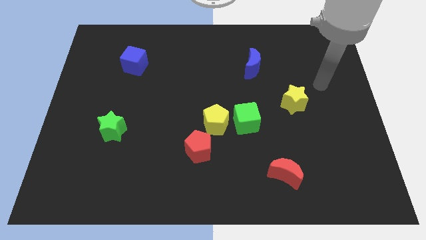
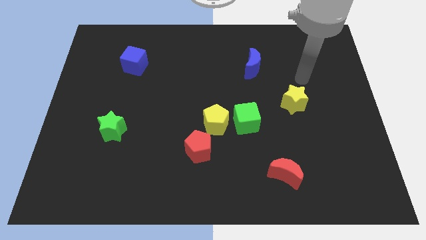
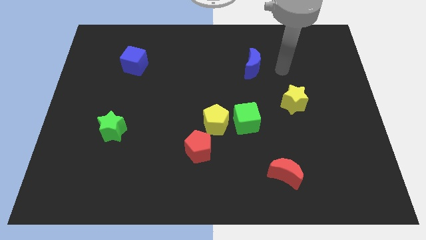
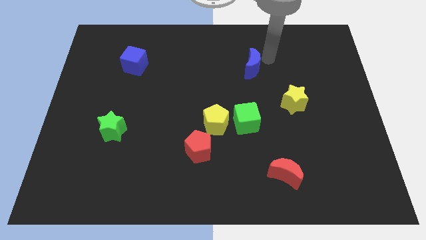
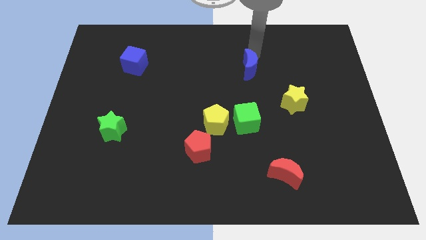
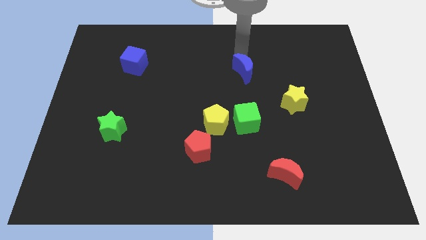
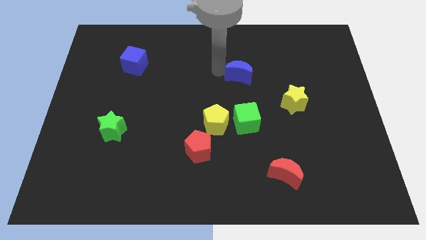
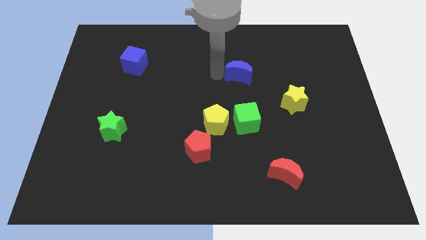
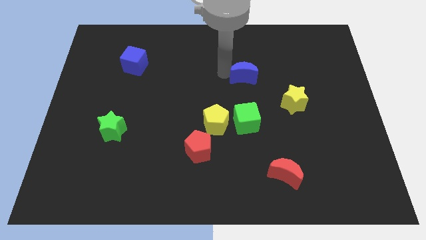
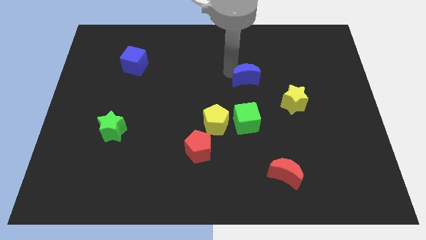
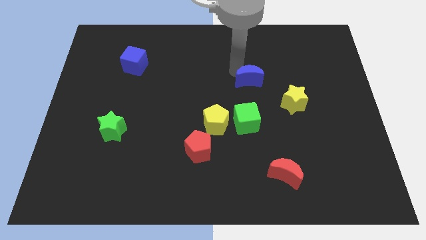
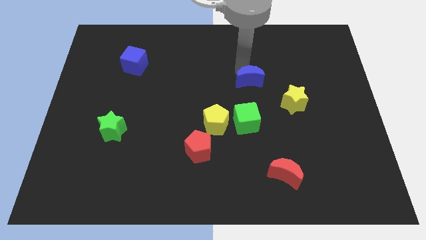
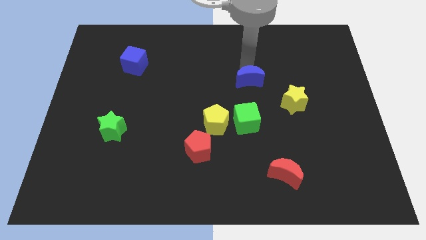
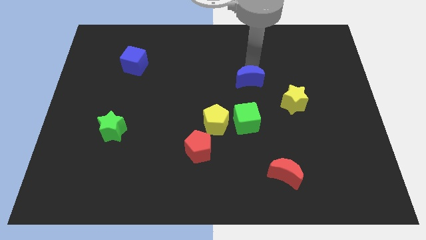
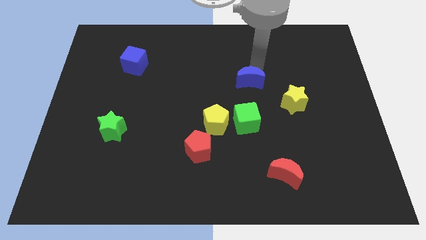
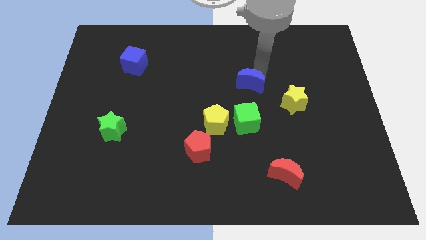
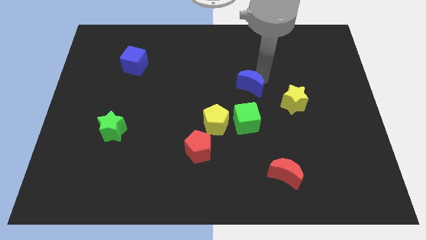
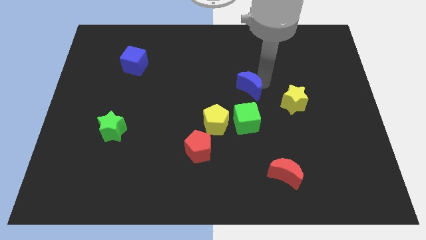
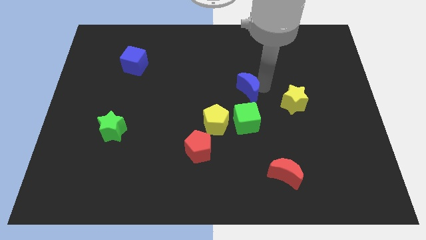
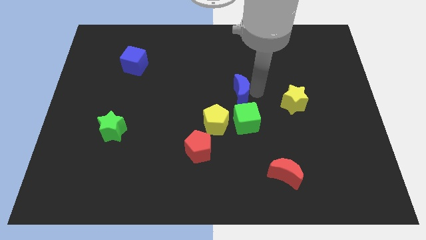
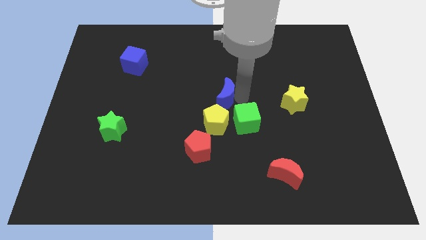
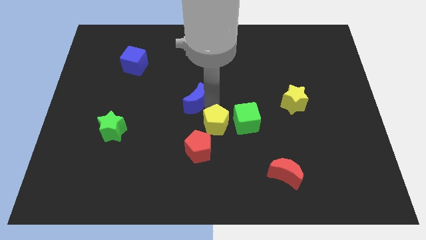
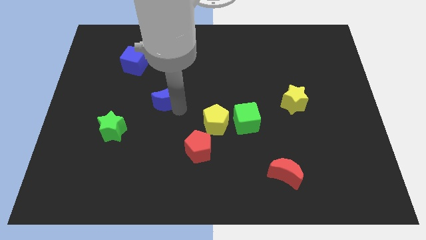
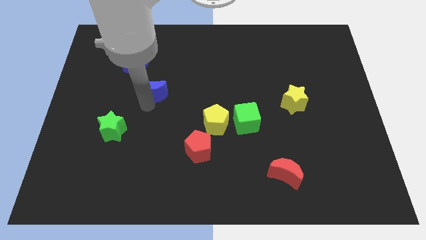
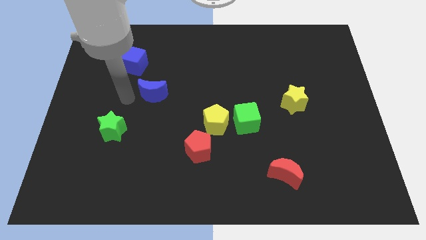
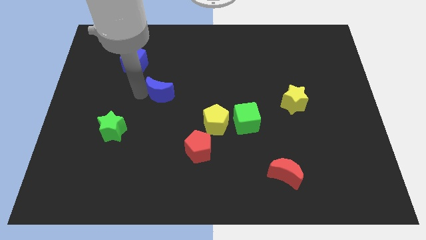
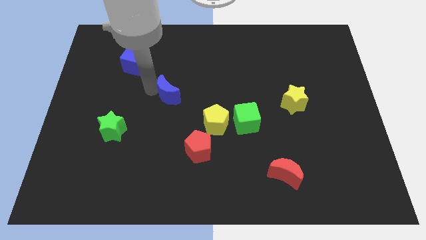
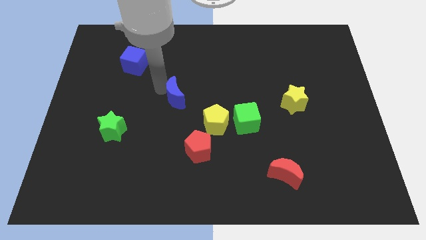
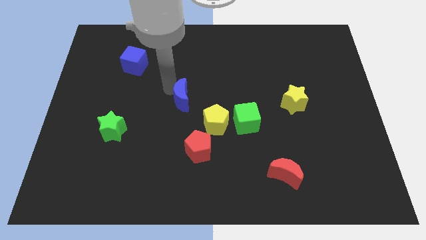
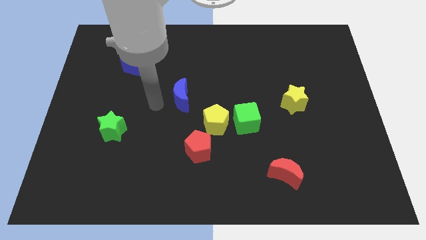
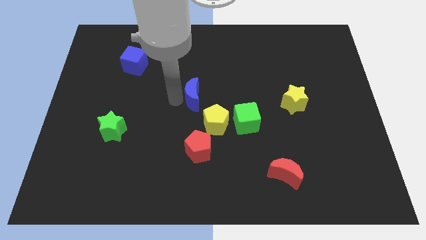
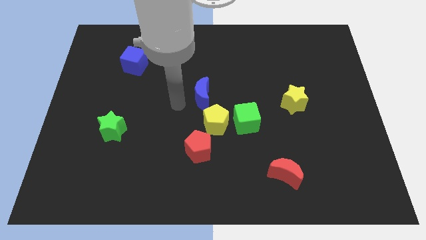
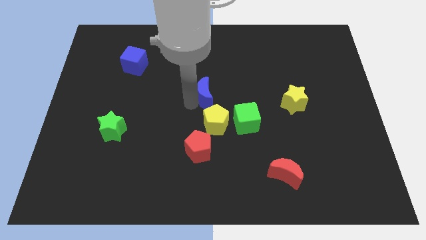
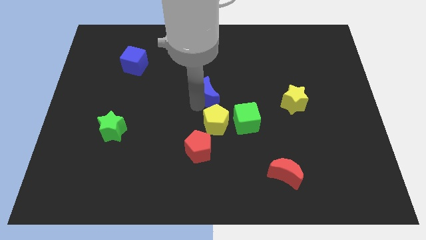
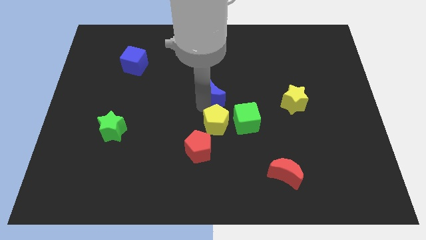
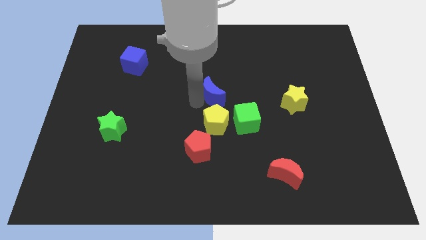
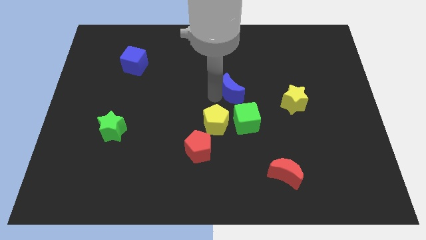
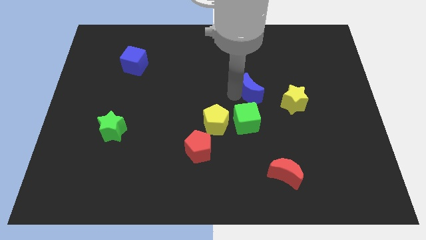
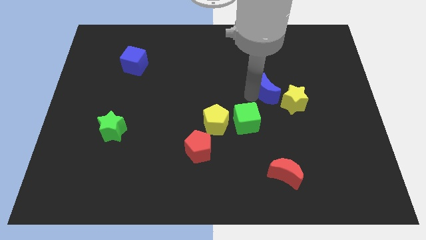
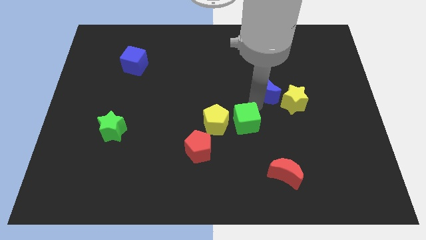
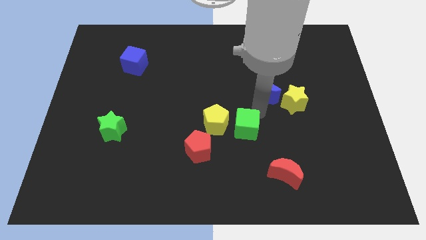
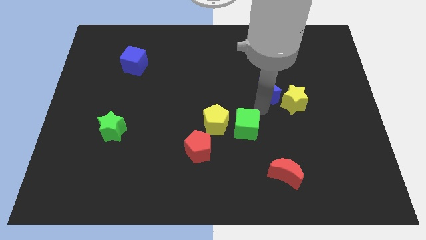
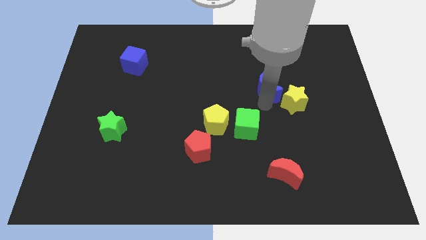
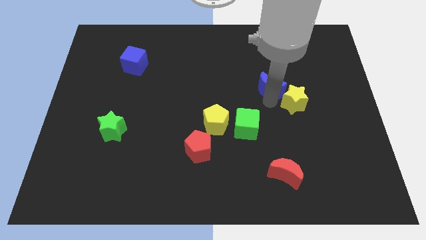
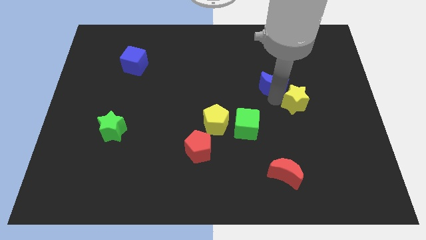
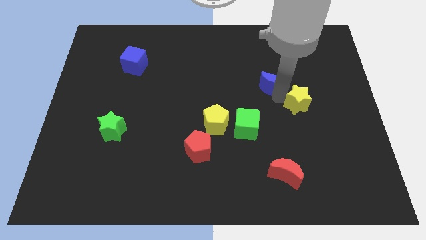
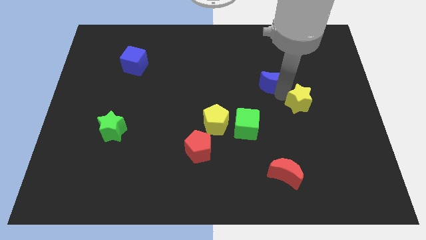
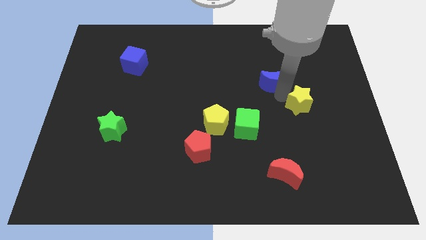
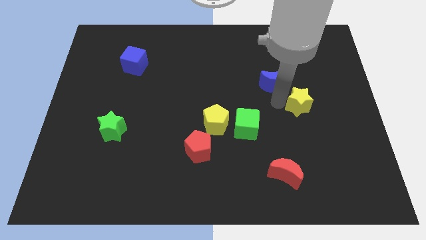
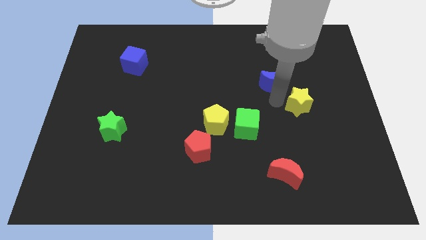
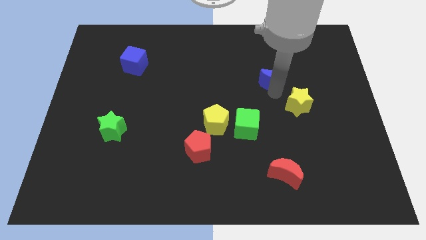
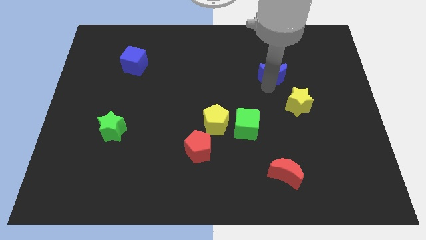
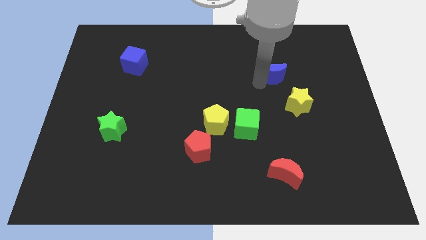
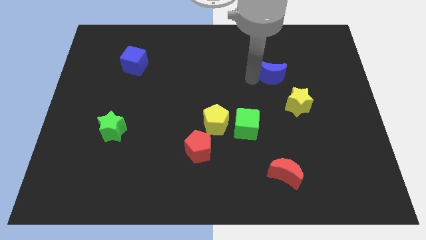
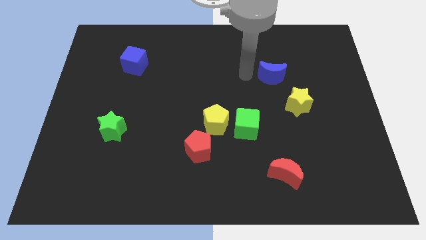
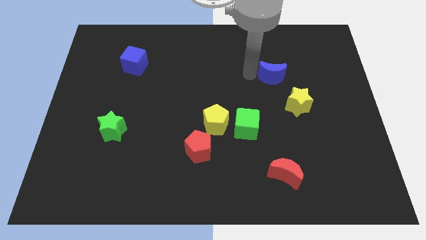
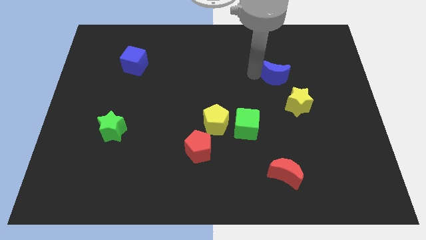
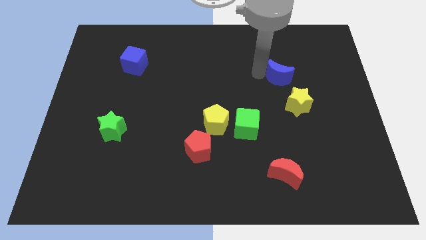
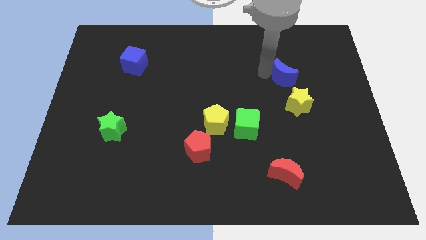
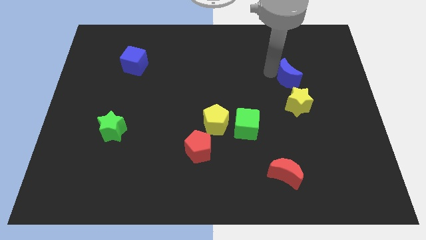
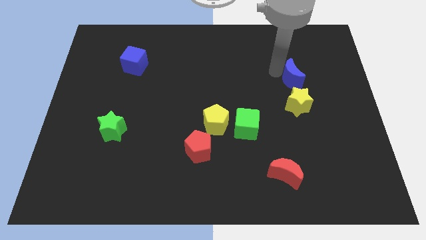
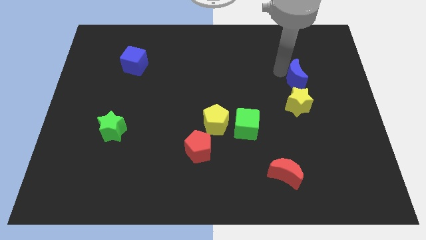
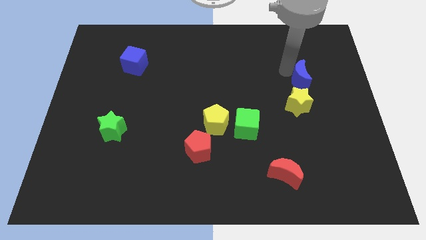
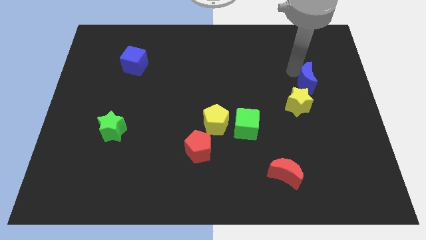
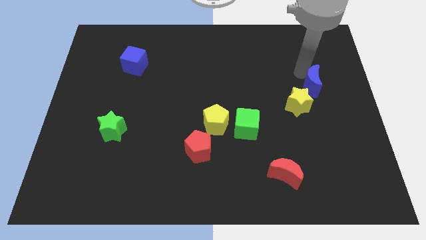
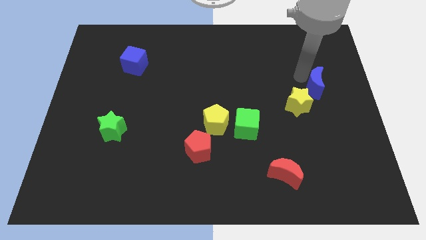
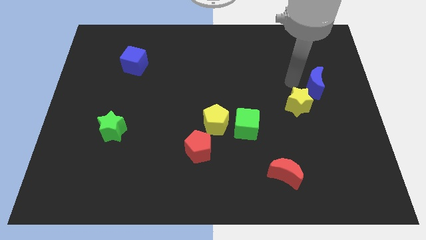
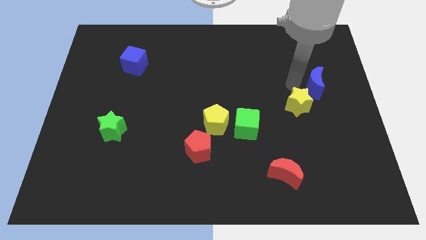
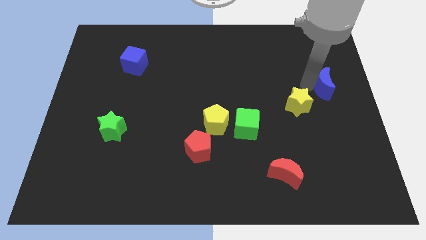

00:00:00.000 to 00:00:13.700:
put the blue moon to the right side of the board
